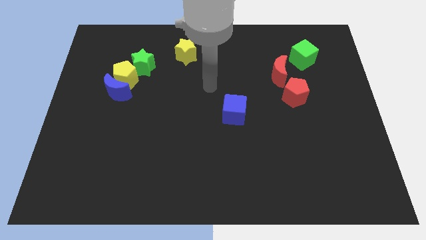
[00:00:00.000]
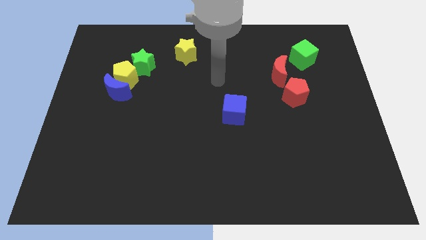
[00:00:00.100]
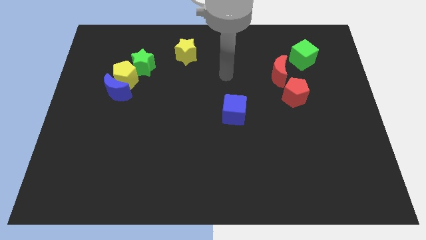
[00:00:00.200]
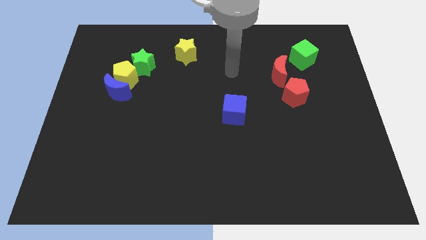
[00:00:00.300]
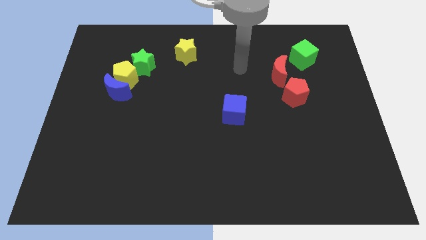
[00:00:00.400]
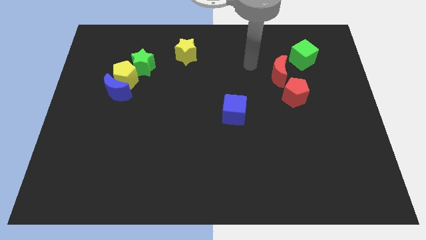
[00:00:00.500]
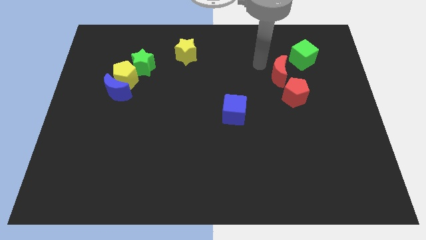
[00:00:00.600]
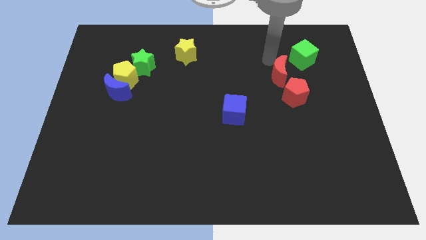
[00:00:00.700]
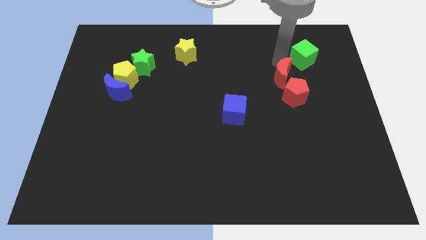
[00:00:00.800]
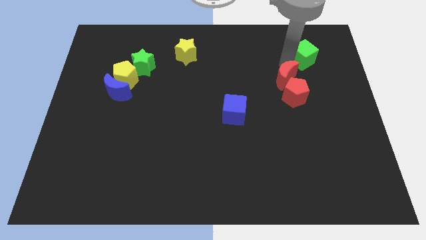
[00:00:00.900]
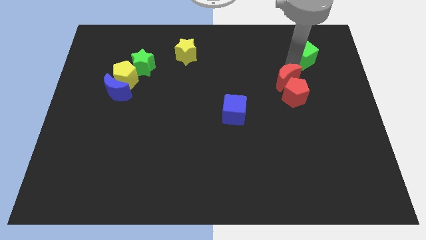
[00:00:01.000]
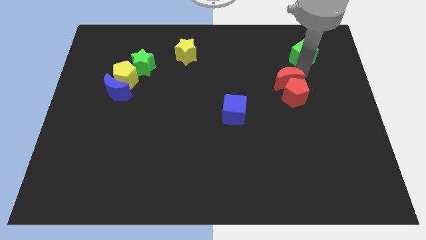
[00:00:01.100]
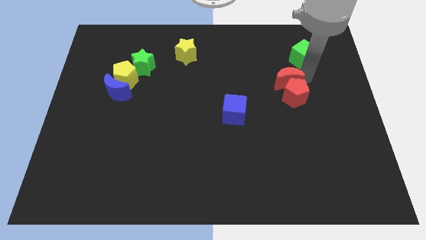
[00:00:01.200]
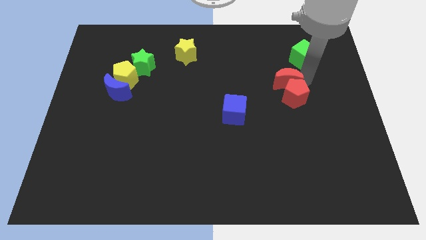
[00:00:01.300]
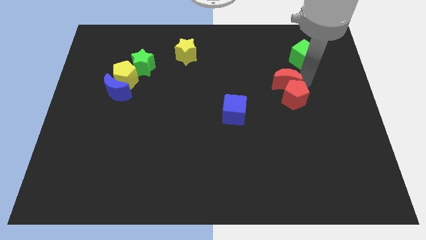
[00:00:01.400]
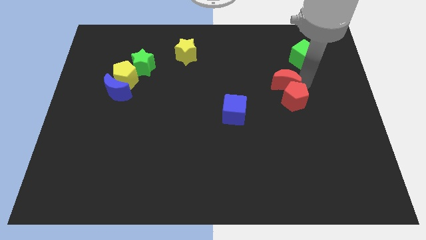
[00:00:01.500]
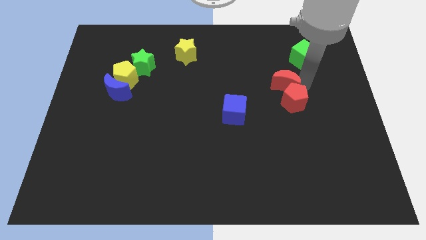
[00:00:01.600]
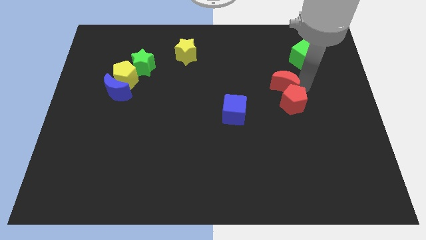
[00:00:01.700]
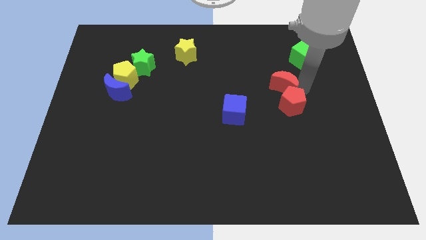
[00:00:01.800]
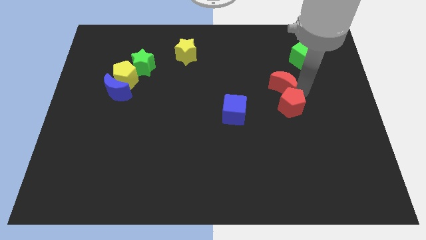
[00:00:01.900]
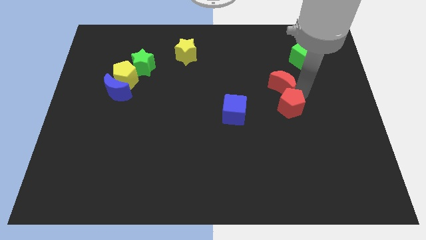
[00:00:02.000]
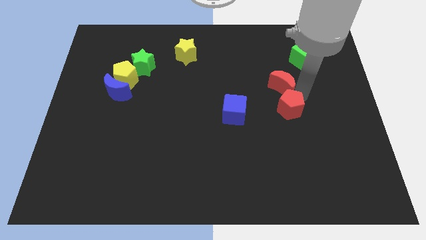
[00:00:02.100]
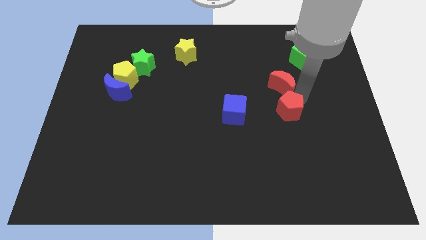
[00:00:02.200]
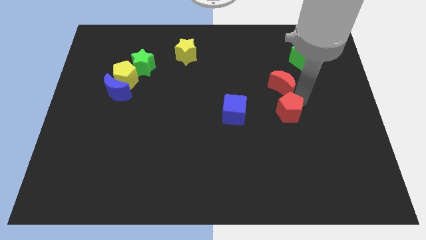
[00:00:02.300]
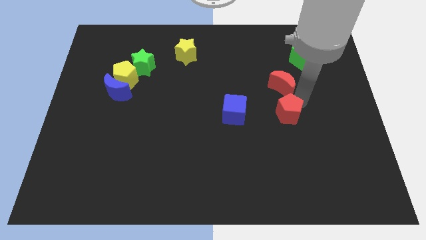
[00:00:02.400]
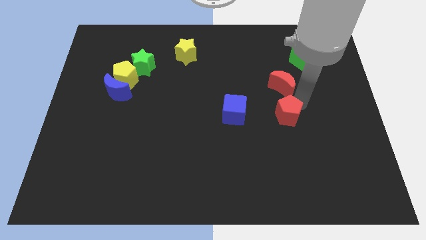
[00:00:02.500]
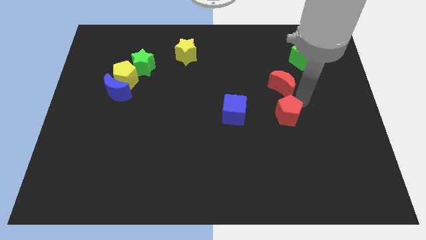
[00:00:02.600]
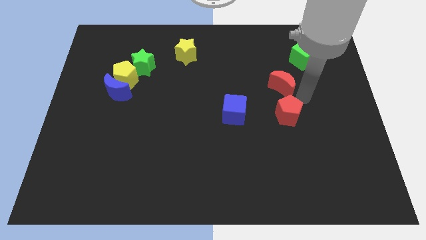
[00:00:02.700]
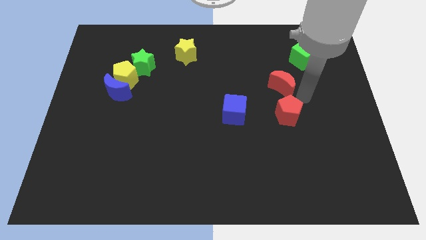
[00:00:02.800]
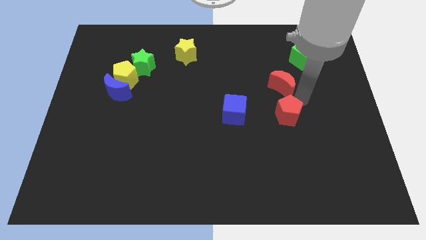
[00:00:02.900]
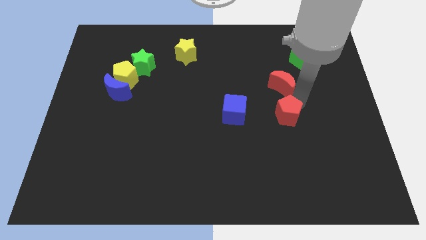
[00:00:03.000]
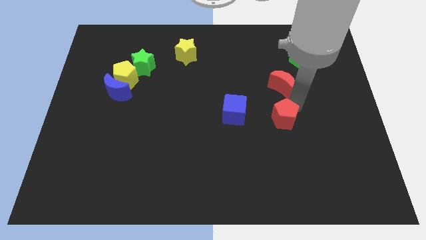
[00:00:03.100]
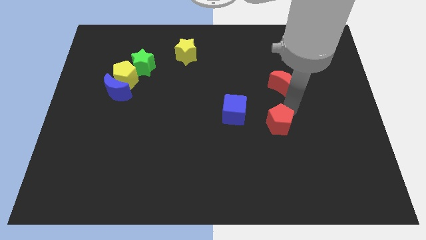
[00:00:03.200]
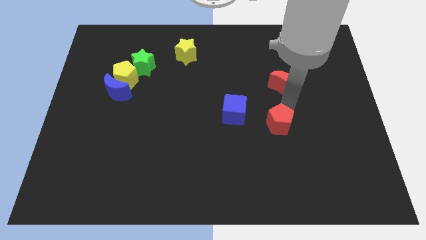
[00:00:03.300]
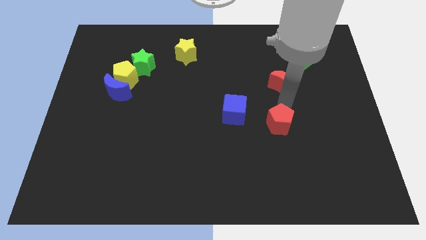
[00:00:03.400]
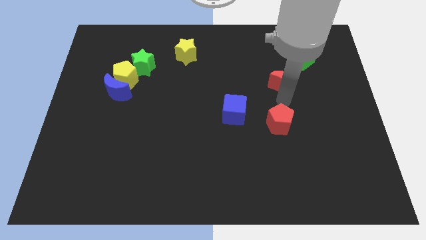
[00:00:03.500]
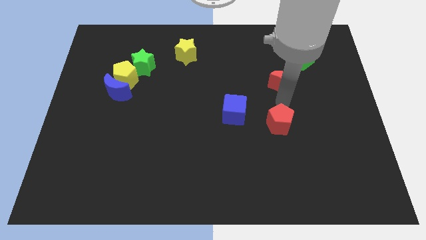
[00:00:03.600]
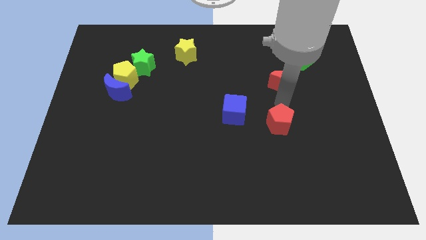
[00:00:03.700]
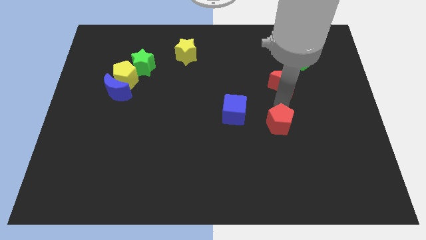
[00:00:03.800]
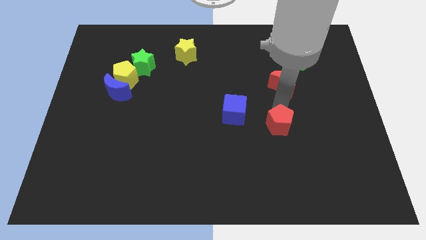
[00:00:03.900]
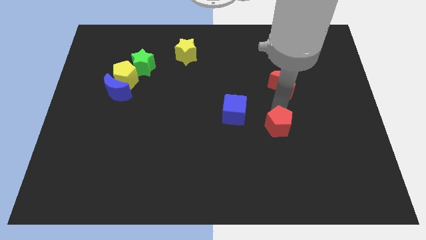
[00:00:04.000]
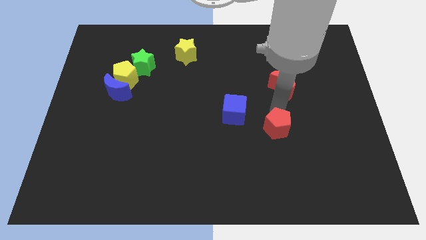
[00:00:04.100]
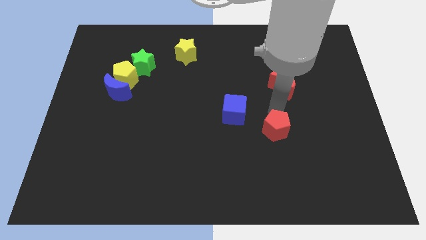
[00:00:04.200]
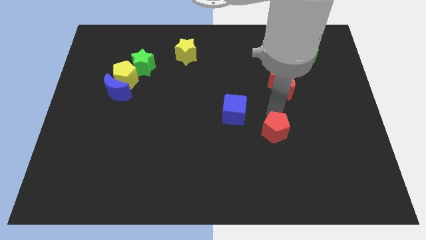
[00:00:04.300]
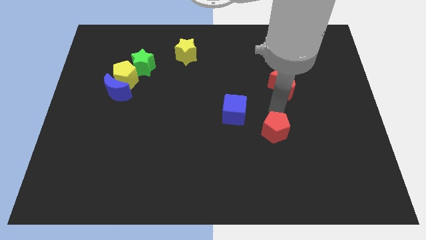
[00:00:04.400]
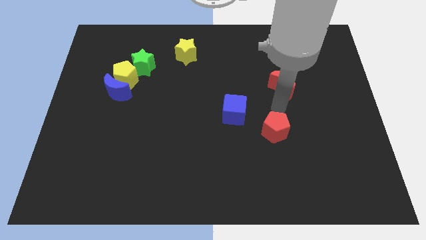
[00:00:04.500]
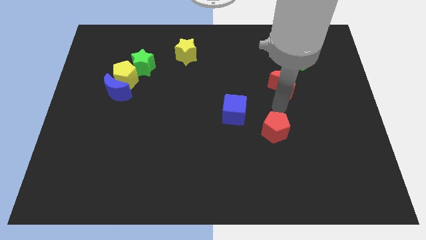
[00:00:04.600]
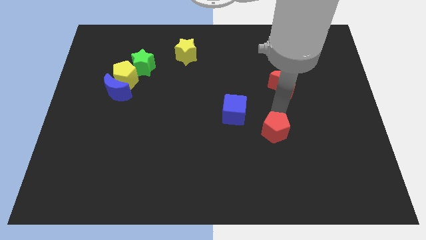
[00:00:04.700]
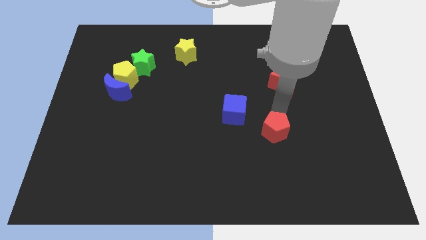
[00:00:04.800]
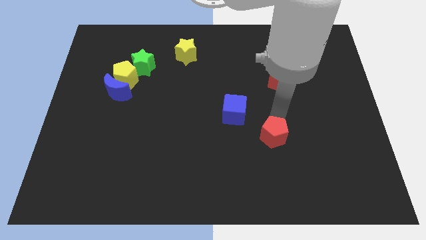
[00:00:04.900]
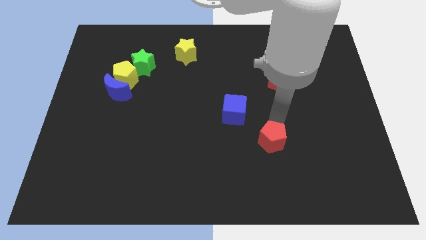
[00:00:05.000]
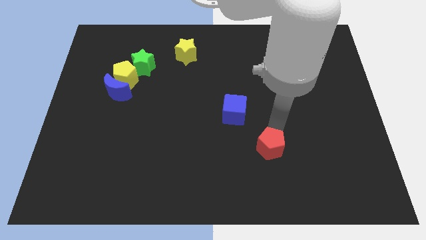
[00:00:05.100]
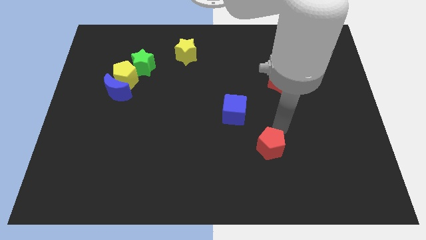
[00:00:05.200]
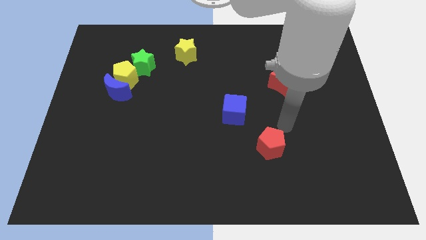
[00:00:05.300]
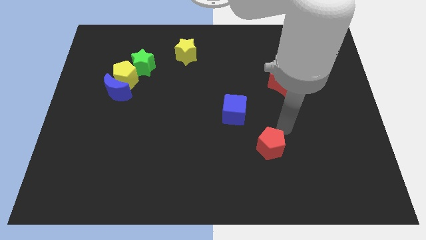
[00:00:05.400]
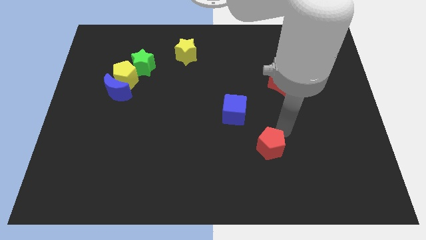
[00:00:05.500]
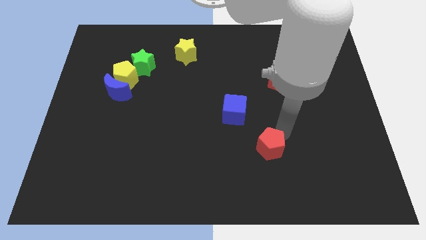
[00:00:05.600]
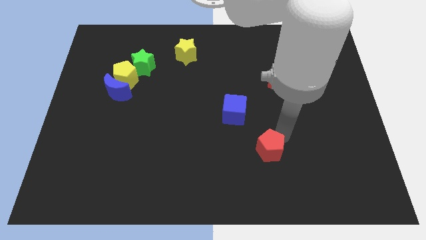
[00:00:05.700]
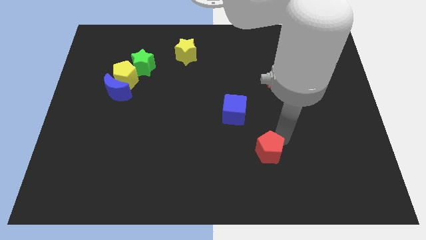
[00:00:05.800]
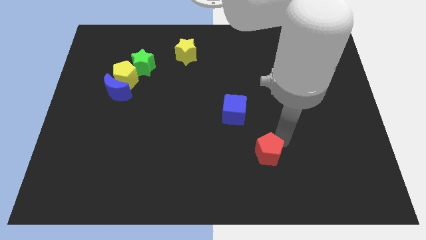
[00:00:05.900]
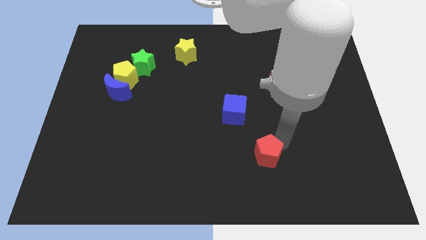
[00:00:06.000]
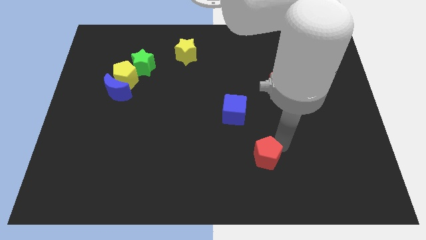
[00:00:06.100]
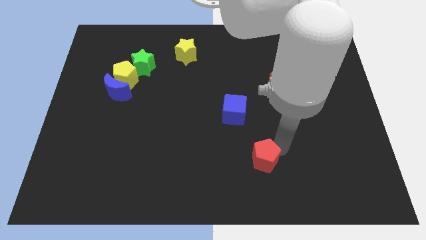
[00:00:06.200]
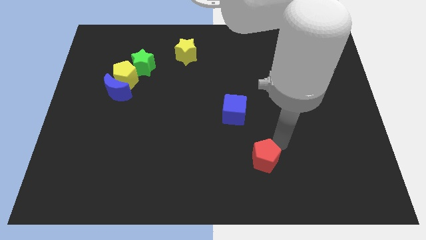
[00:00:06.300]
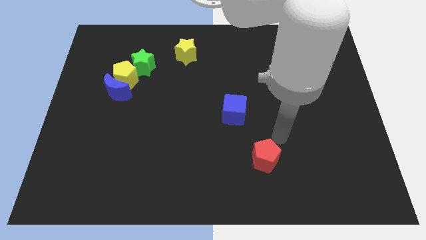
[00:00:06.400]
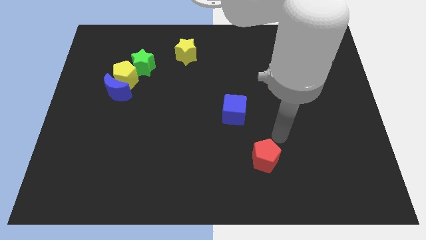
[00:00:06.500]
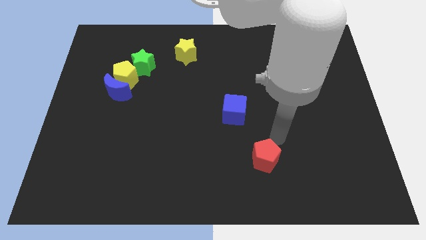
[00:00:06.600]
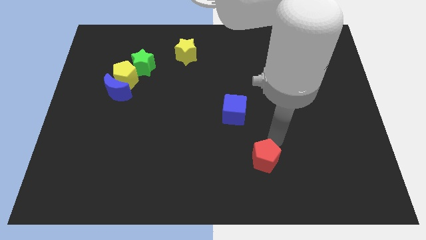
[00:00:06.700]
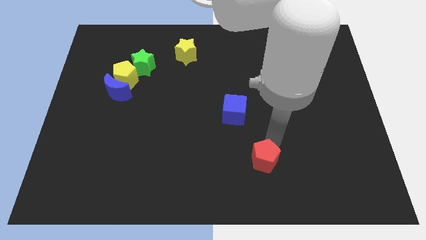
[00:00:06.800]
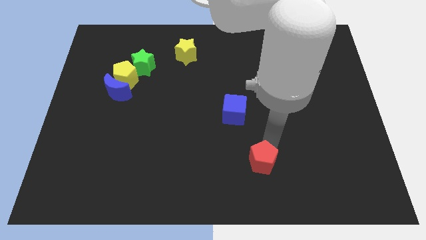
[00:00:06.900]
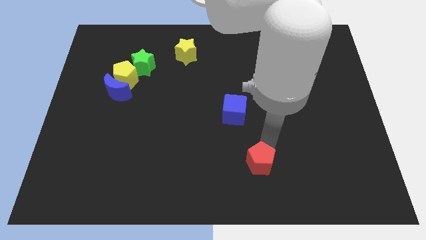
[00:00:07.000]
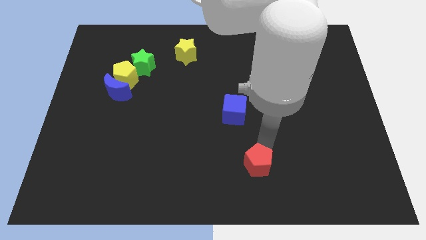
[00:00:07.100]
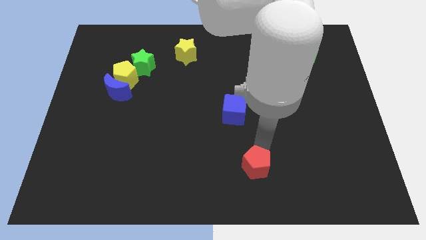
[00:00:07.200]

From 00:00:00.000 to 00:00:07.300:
put the red pentagon to the bottom
